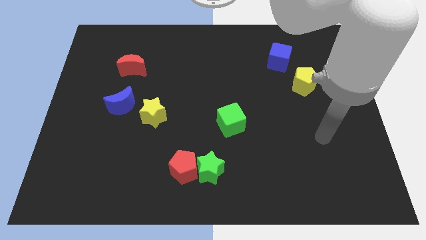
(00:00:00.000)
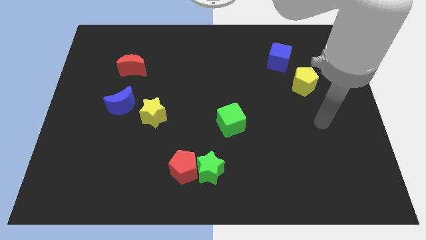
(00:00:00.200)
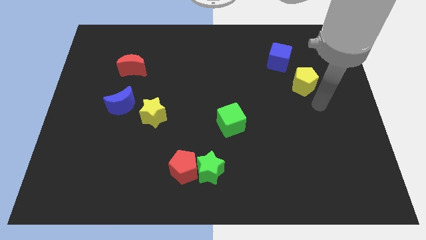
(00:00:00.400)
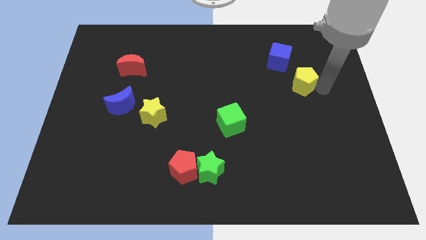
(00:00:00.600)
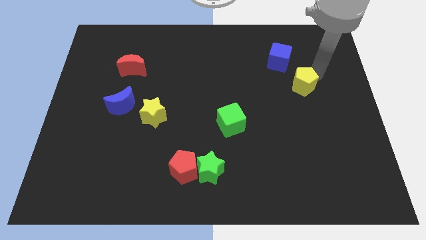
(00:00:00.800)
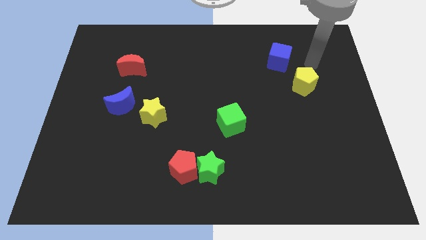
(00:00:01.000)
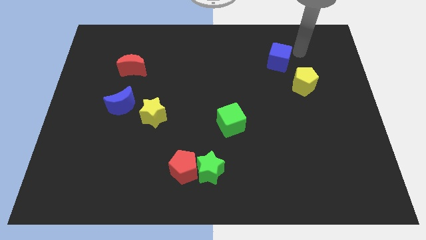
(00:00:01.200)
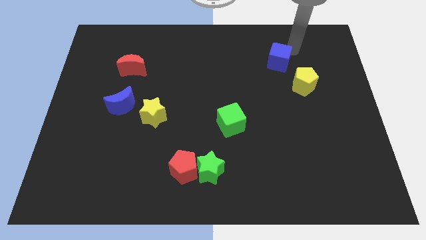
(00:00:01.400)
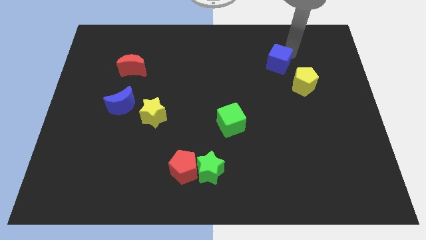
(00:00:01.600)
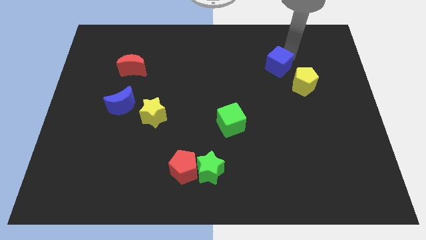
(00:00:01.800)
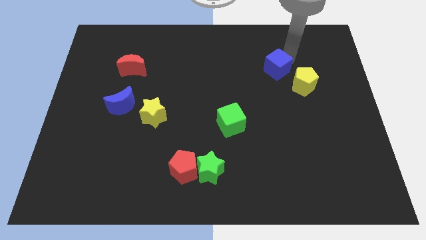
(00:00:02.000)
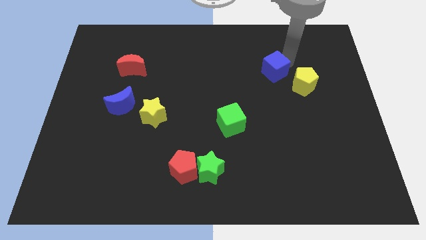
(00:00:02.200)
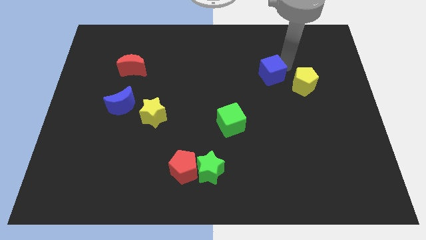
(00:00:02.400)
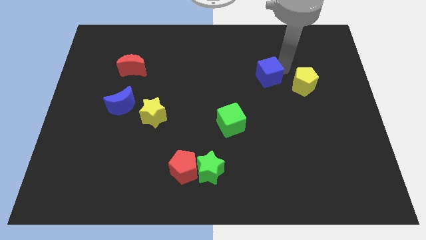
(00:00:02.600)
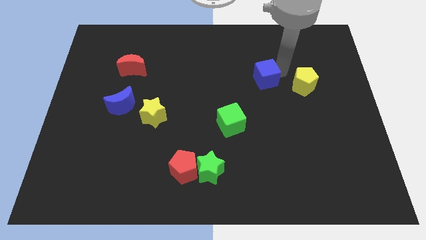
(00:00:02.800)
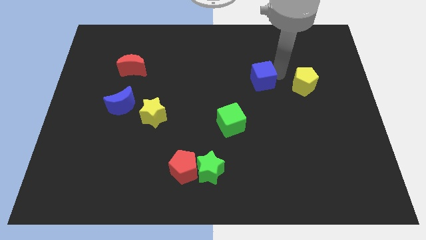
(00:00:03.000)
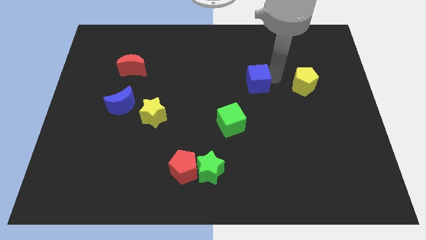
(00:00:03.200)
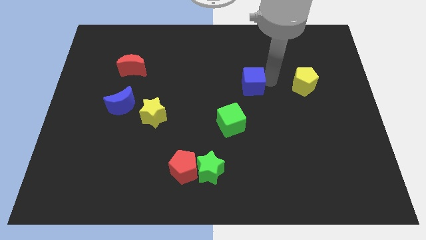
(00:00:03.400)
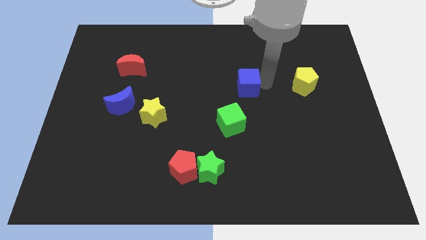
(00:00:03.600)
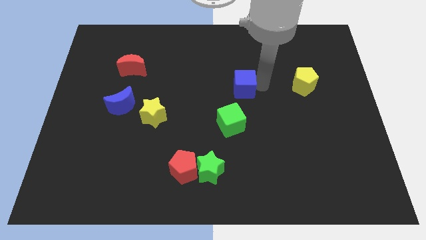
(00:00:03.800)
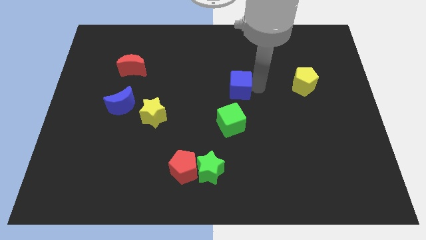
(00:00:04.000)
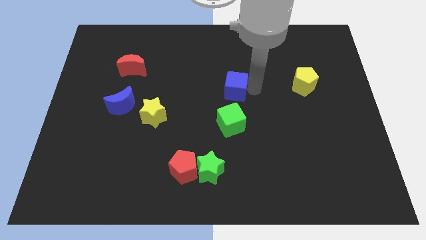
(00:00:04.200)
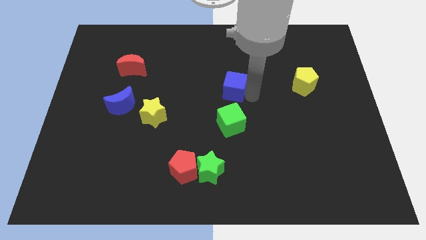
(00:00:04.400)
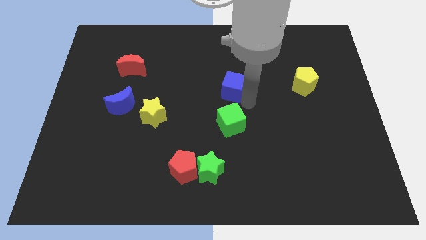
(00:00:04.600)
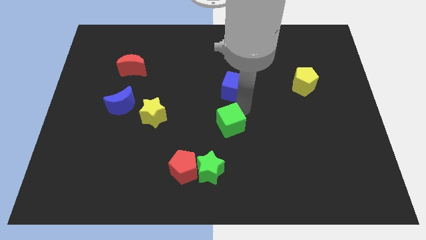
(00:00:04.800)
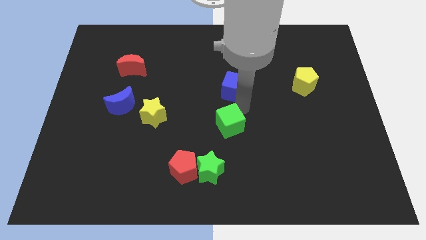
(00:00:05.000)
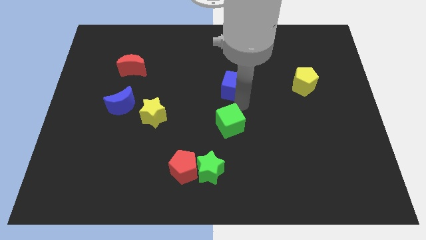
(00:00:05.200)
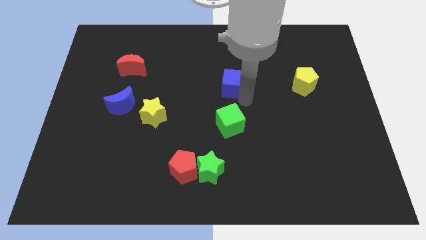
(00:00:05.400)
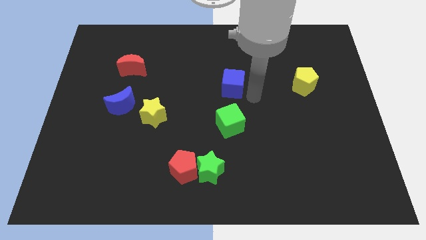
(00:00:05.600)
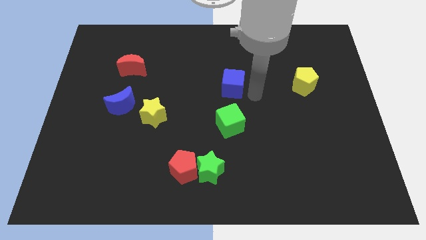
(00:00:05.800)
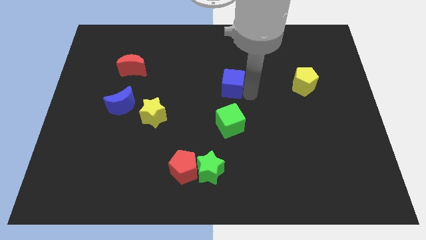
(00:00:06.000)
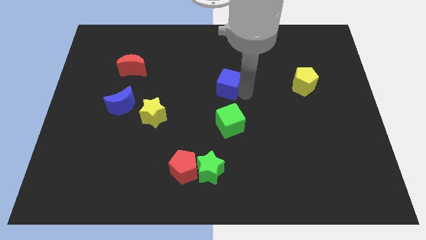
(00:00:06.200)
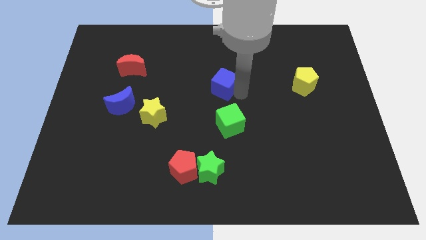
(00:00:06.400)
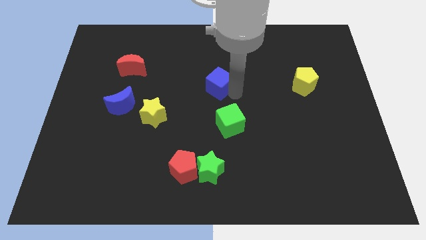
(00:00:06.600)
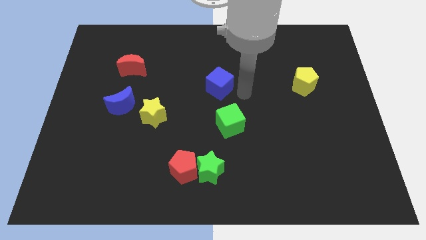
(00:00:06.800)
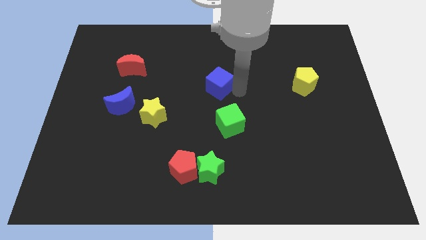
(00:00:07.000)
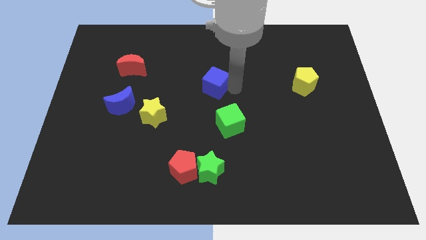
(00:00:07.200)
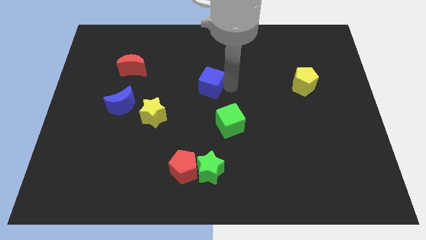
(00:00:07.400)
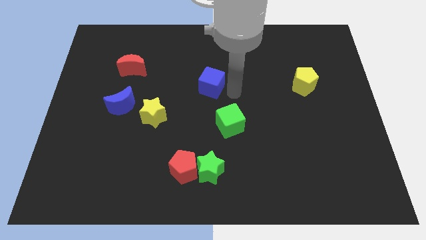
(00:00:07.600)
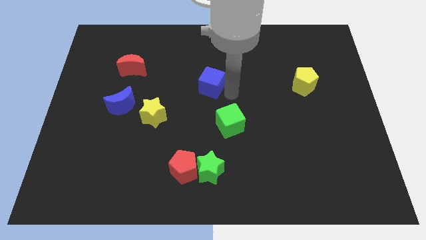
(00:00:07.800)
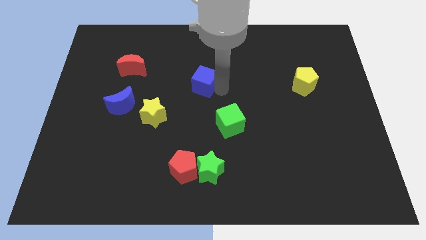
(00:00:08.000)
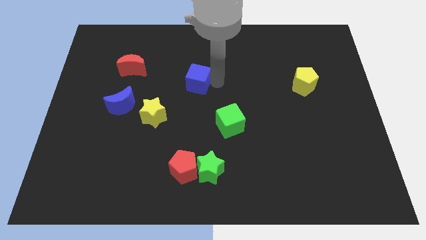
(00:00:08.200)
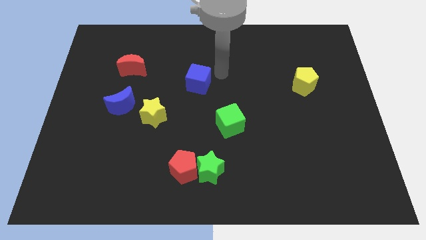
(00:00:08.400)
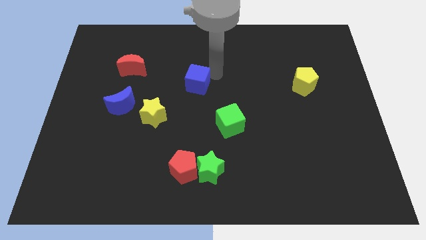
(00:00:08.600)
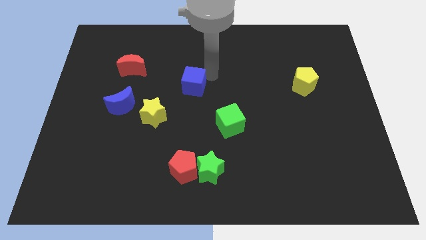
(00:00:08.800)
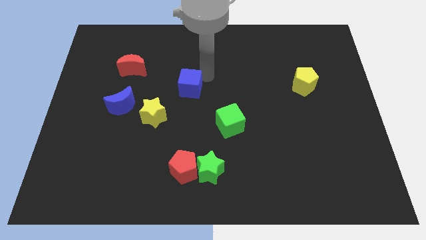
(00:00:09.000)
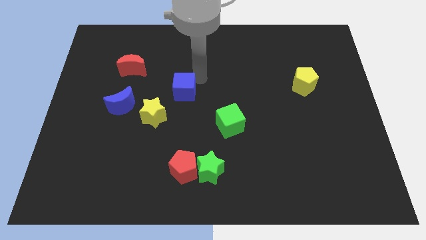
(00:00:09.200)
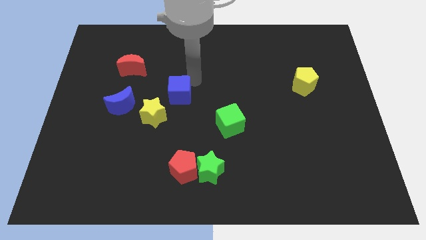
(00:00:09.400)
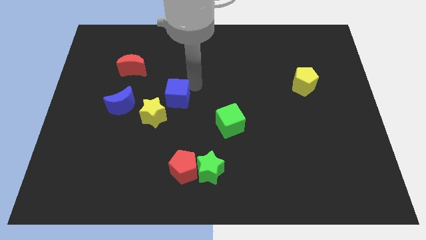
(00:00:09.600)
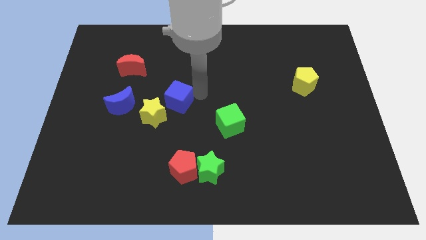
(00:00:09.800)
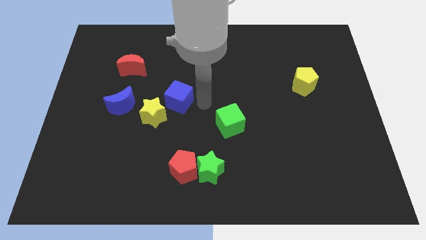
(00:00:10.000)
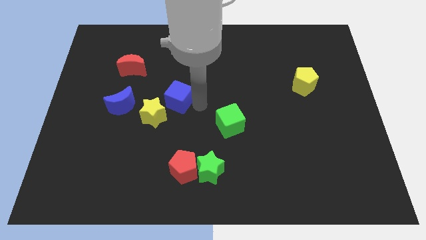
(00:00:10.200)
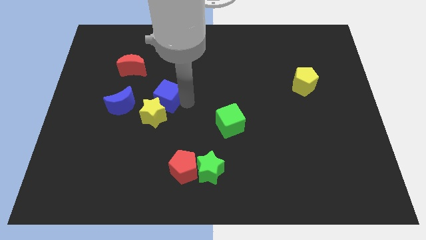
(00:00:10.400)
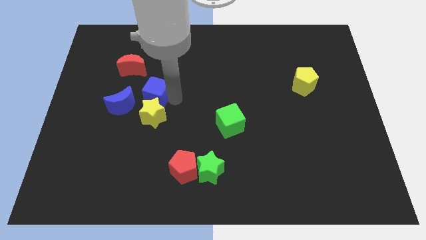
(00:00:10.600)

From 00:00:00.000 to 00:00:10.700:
slide the blue cube diagonally up and to the left of the yellow star

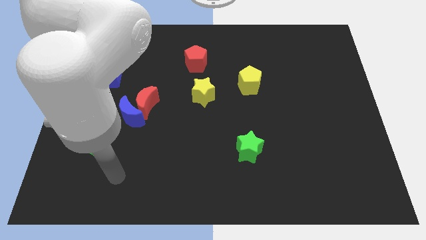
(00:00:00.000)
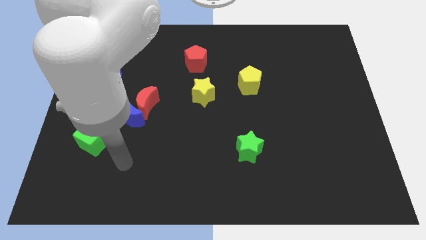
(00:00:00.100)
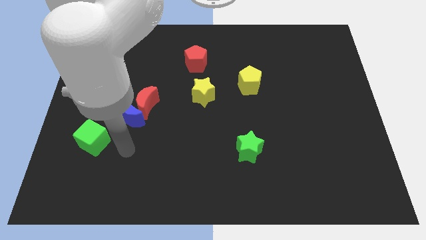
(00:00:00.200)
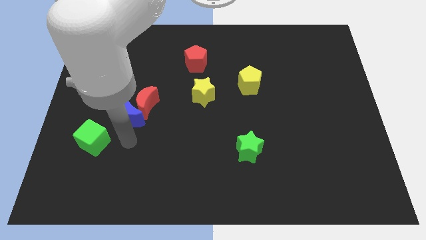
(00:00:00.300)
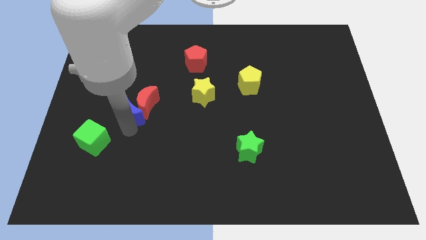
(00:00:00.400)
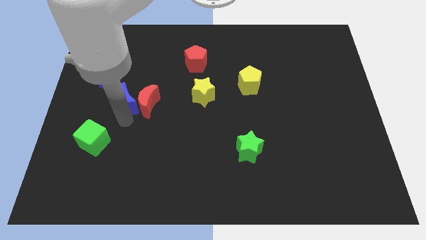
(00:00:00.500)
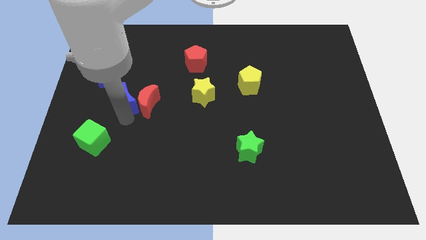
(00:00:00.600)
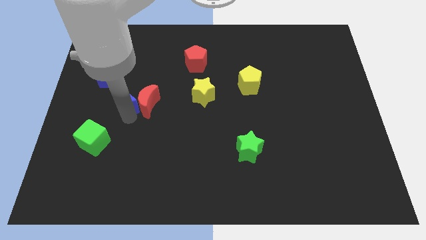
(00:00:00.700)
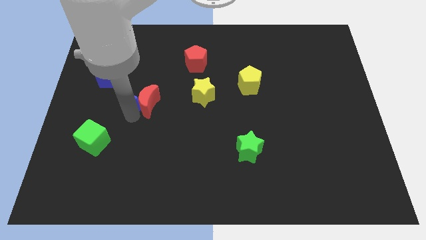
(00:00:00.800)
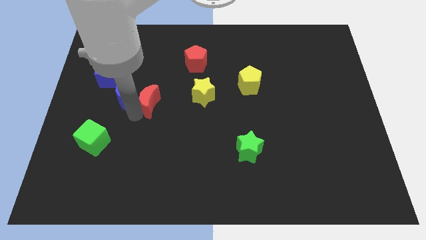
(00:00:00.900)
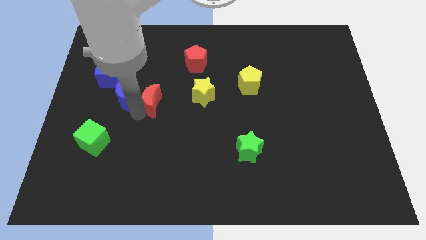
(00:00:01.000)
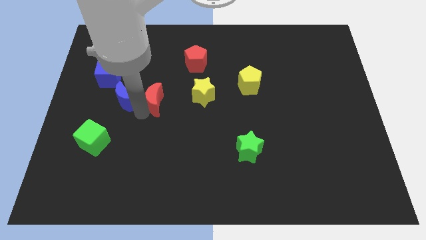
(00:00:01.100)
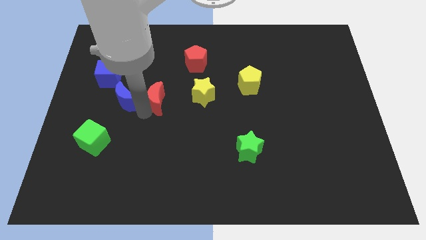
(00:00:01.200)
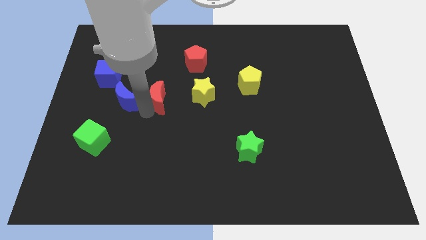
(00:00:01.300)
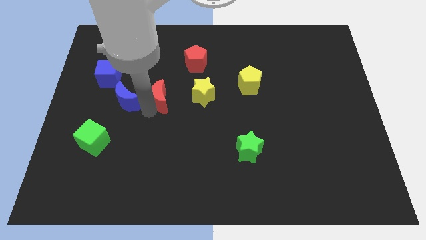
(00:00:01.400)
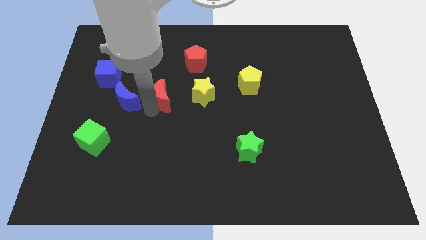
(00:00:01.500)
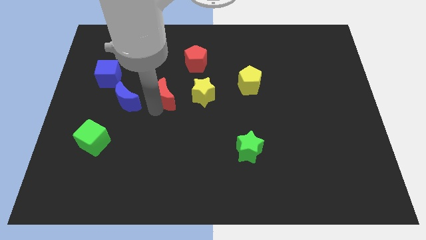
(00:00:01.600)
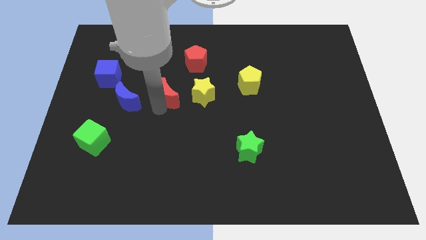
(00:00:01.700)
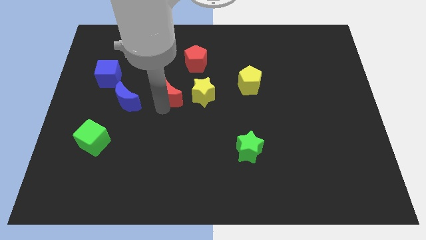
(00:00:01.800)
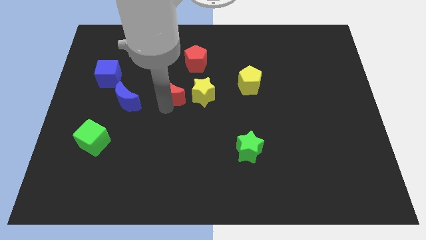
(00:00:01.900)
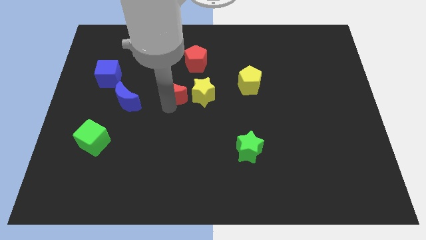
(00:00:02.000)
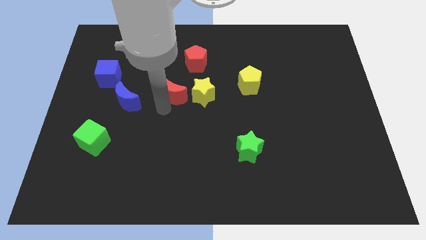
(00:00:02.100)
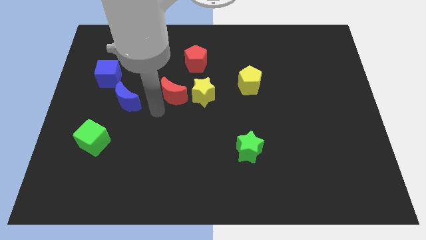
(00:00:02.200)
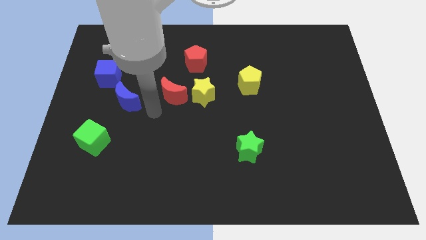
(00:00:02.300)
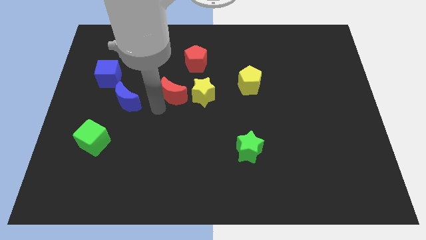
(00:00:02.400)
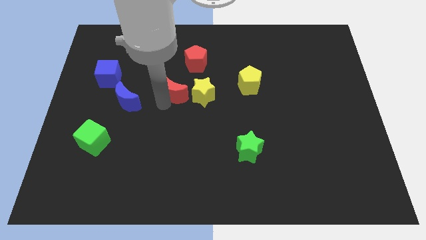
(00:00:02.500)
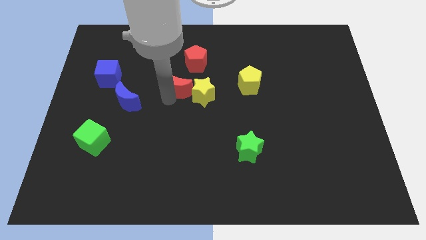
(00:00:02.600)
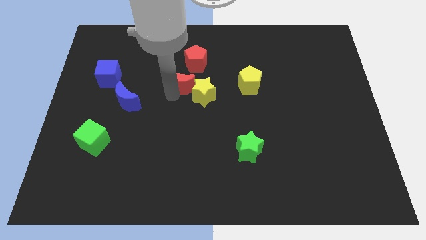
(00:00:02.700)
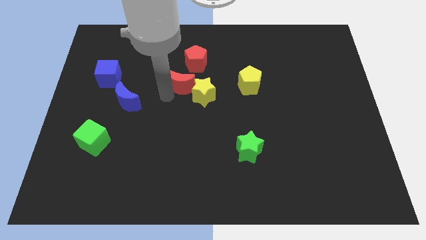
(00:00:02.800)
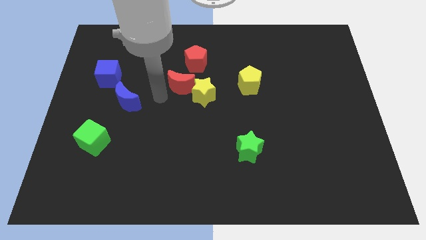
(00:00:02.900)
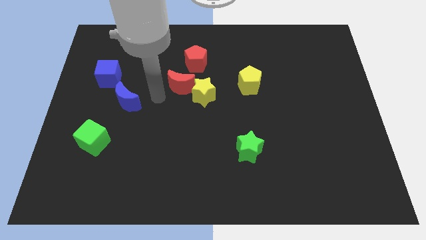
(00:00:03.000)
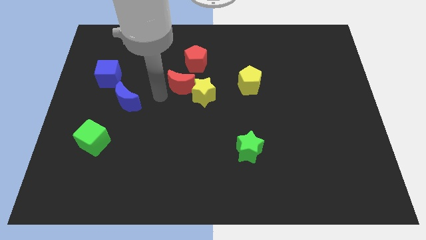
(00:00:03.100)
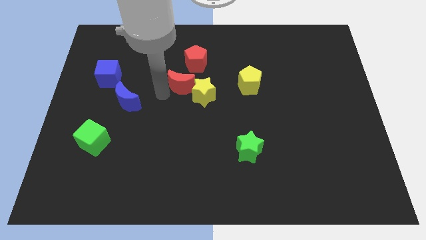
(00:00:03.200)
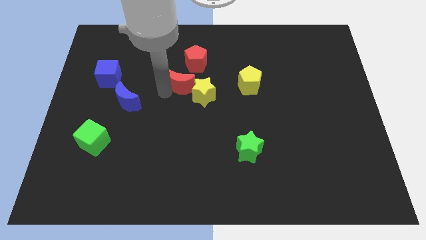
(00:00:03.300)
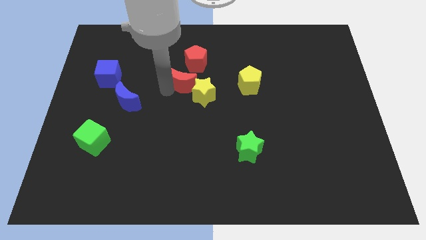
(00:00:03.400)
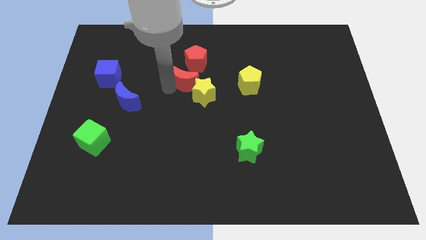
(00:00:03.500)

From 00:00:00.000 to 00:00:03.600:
push the red moon to the top side of the yellow star
